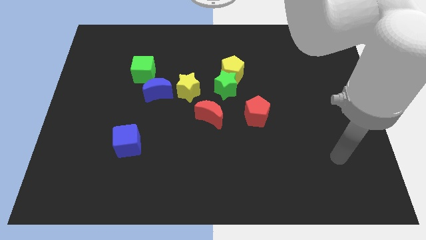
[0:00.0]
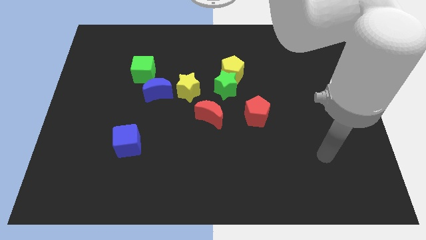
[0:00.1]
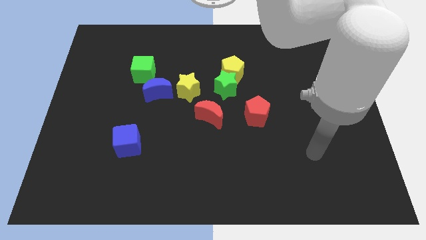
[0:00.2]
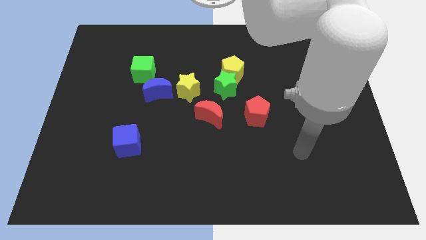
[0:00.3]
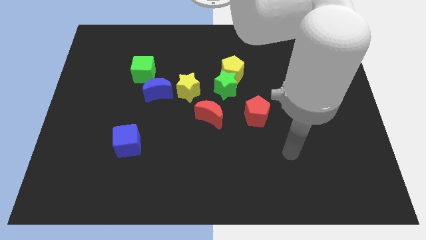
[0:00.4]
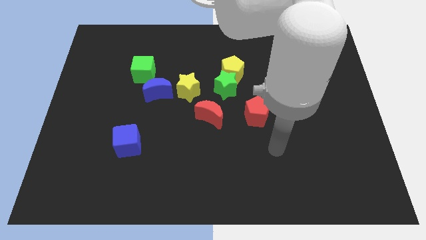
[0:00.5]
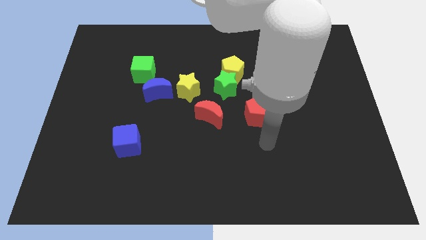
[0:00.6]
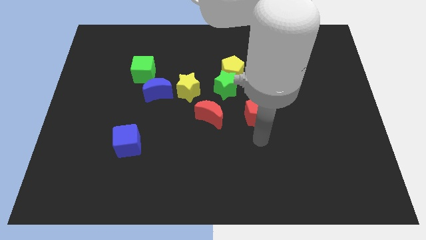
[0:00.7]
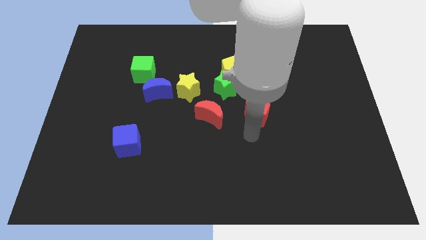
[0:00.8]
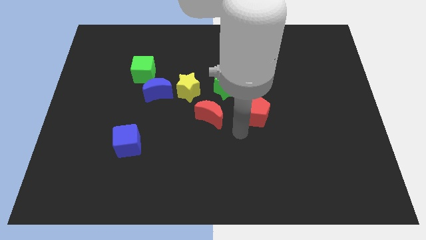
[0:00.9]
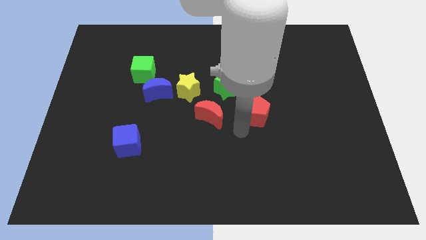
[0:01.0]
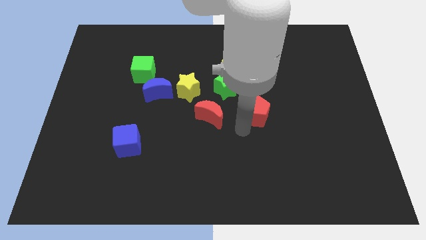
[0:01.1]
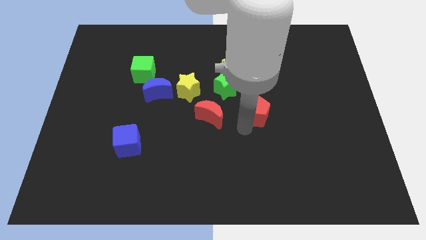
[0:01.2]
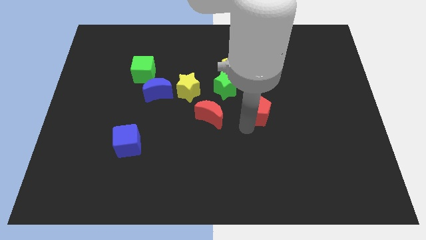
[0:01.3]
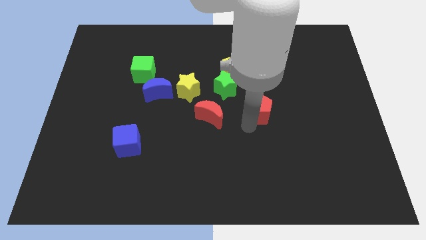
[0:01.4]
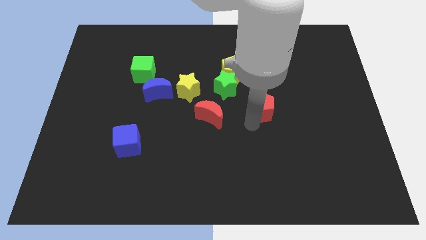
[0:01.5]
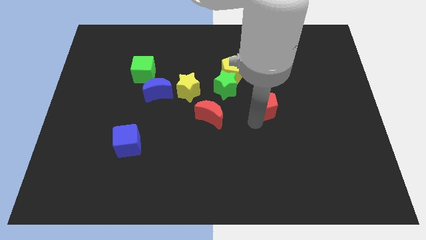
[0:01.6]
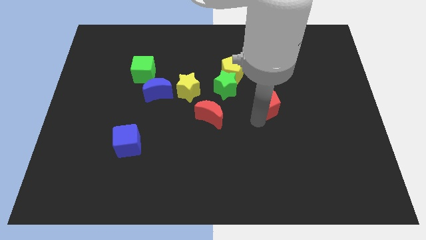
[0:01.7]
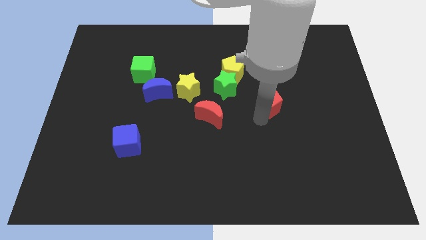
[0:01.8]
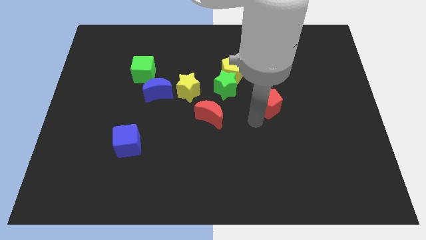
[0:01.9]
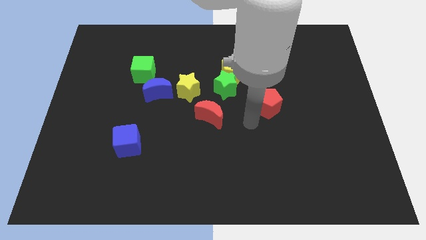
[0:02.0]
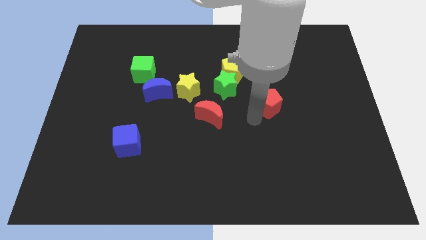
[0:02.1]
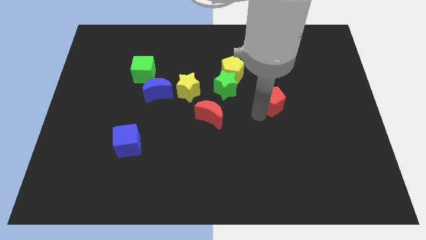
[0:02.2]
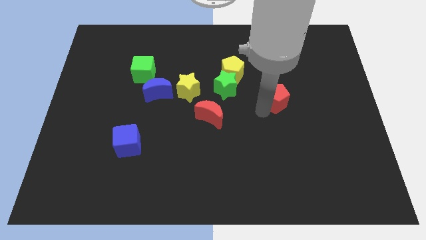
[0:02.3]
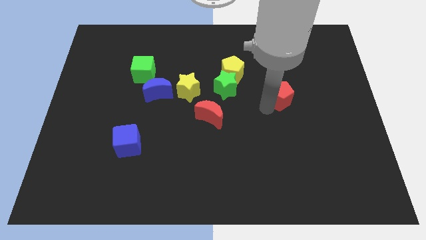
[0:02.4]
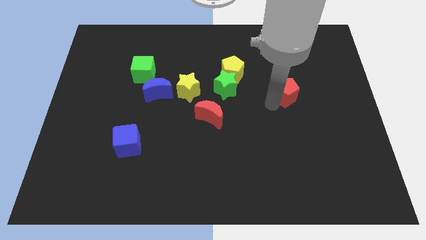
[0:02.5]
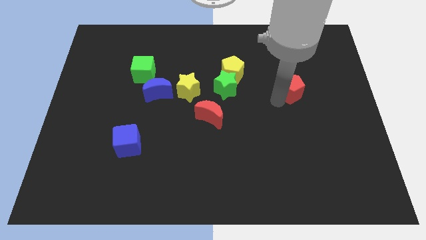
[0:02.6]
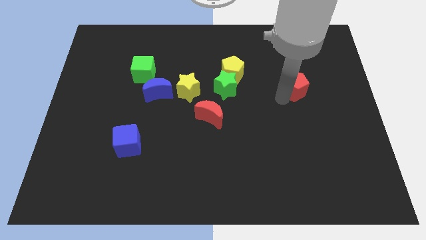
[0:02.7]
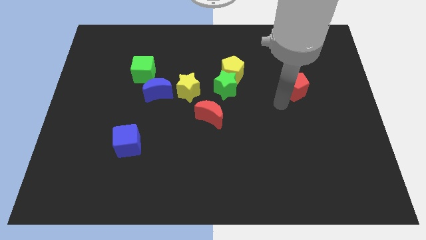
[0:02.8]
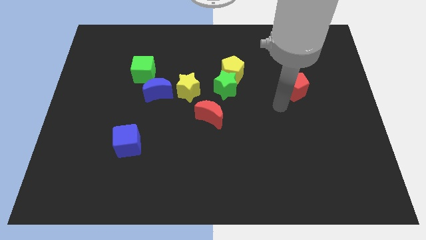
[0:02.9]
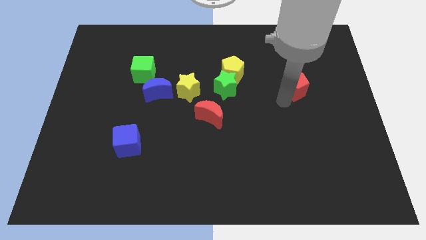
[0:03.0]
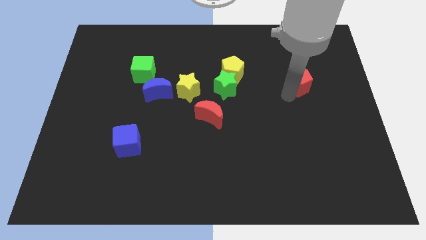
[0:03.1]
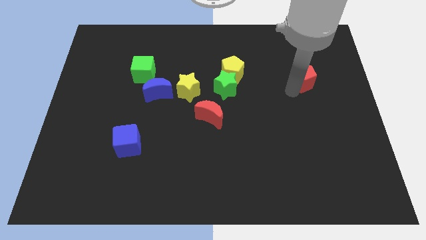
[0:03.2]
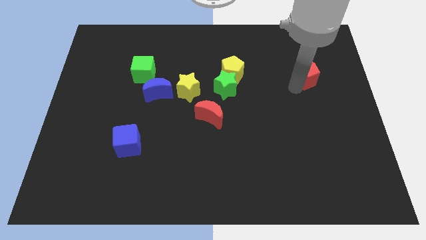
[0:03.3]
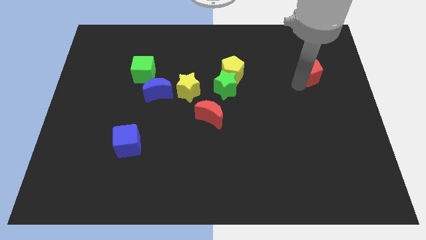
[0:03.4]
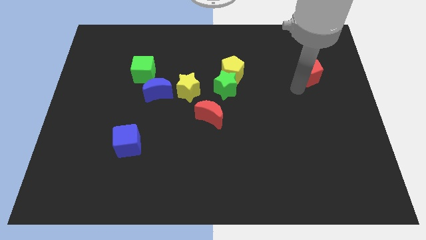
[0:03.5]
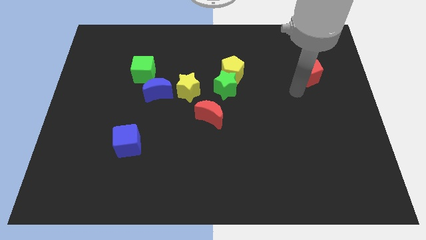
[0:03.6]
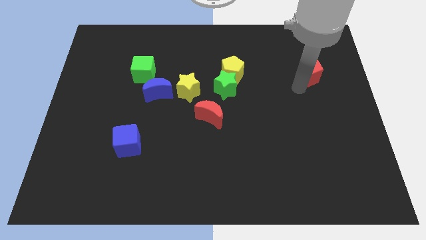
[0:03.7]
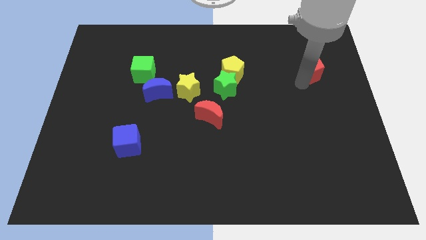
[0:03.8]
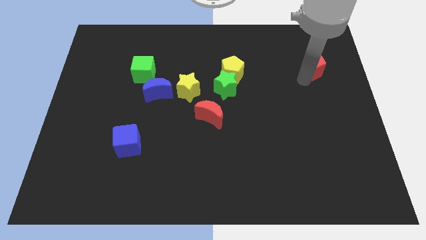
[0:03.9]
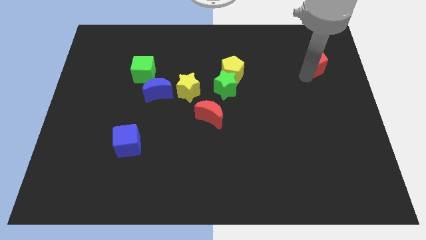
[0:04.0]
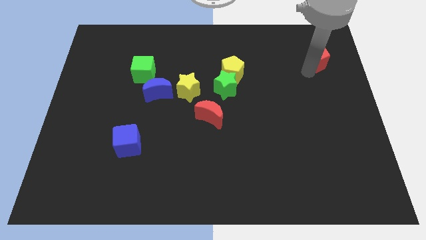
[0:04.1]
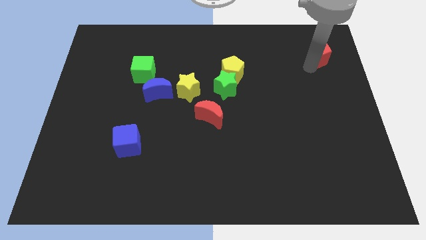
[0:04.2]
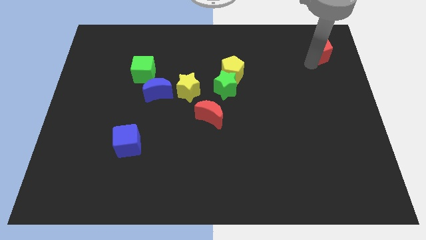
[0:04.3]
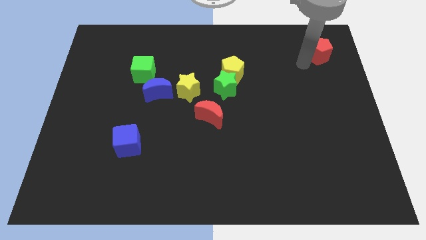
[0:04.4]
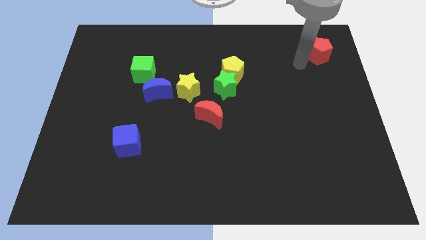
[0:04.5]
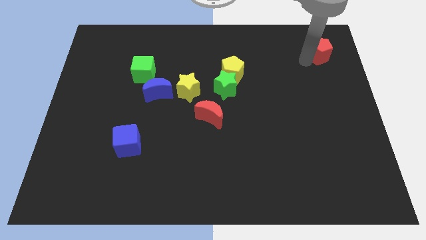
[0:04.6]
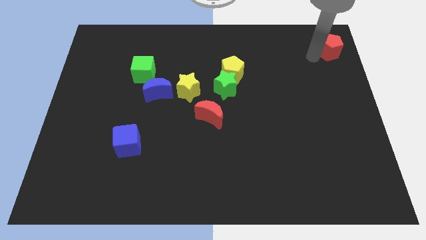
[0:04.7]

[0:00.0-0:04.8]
push the red pentagon to the top right

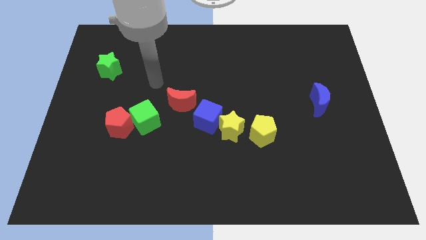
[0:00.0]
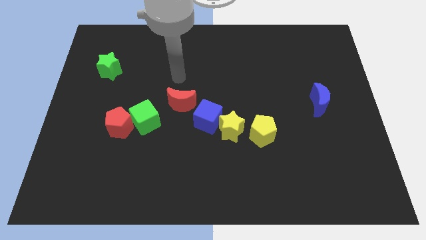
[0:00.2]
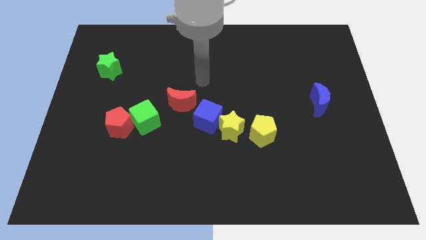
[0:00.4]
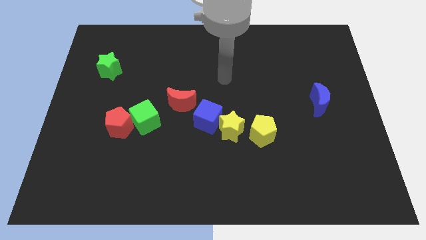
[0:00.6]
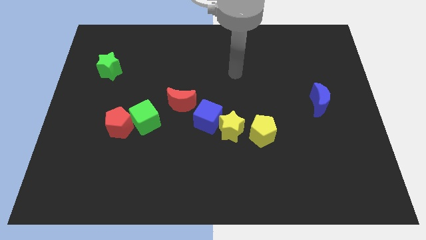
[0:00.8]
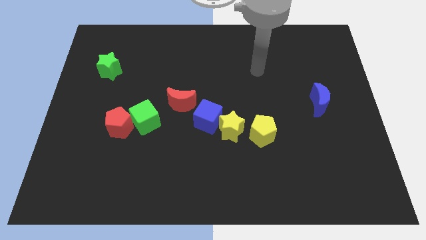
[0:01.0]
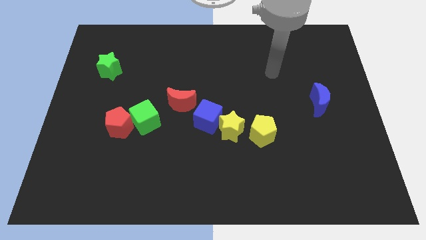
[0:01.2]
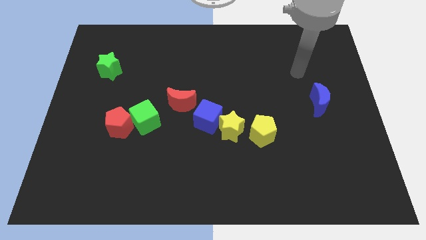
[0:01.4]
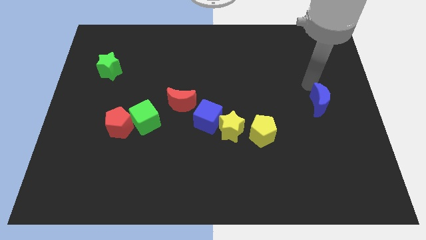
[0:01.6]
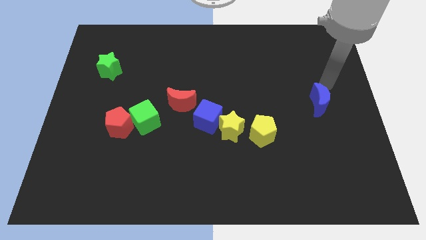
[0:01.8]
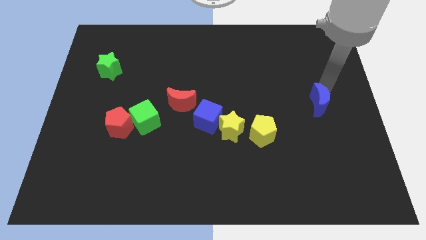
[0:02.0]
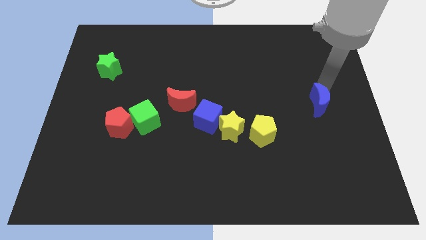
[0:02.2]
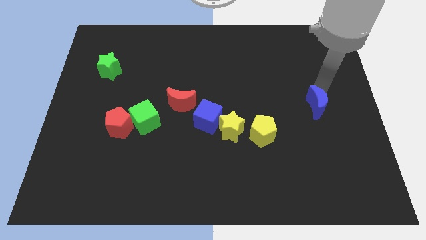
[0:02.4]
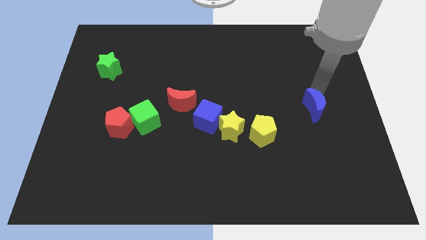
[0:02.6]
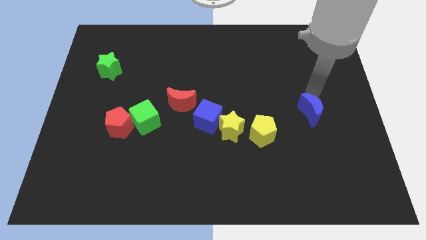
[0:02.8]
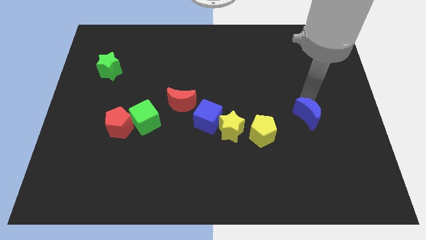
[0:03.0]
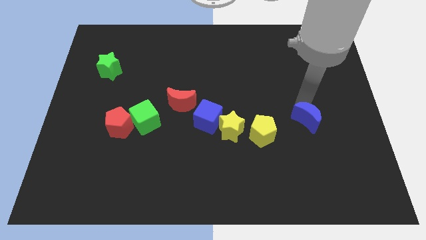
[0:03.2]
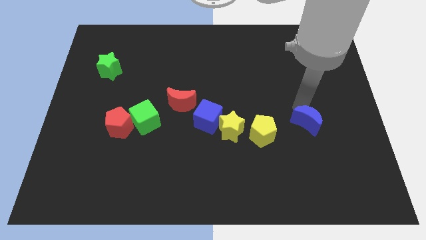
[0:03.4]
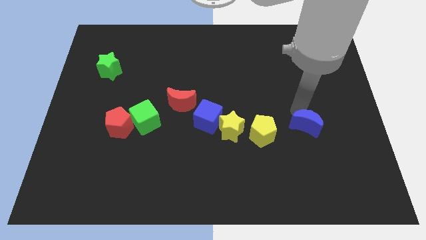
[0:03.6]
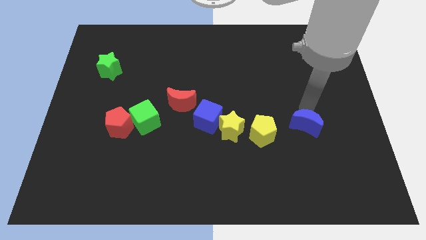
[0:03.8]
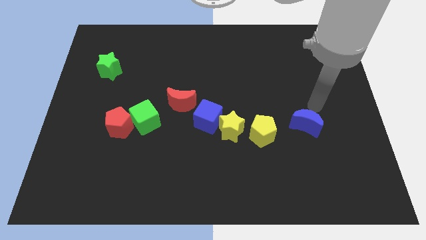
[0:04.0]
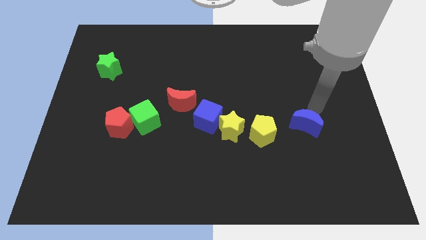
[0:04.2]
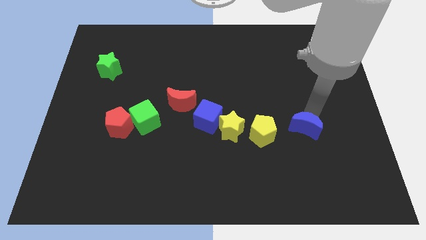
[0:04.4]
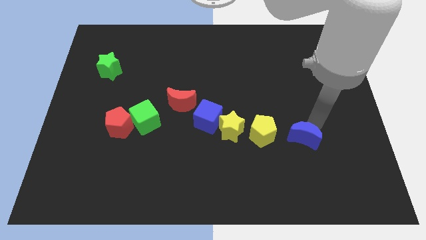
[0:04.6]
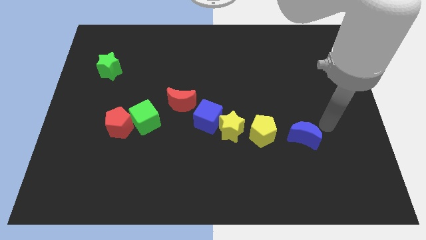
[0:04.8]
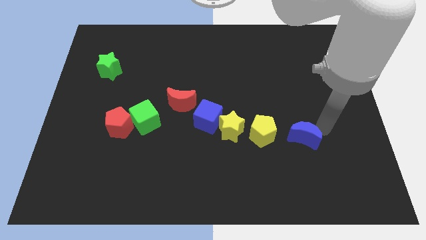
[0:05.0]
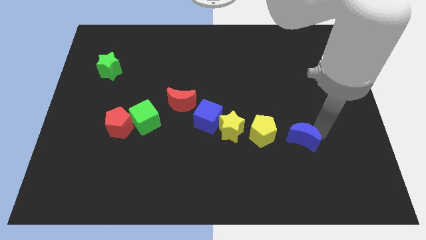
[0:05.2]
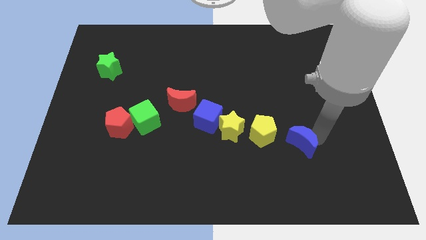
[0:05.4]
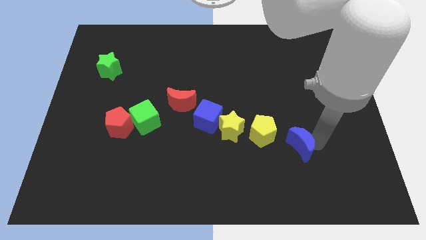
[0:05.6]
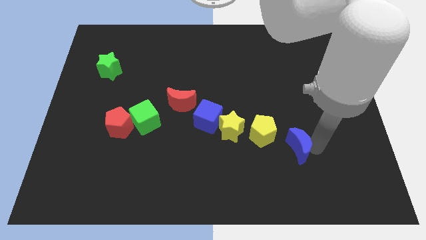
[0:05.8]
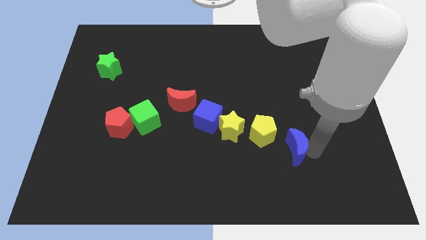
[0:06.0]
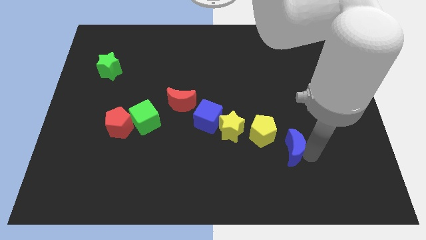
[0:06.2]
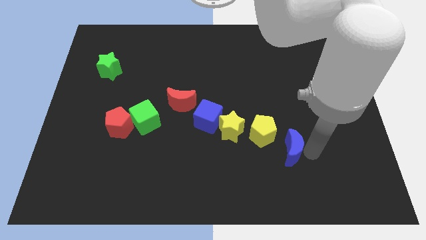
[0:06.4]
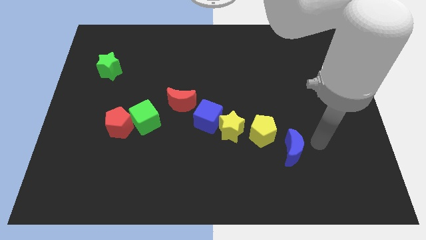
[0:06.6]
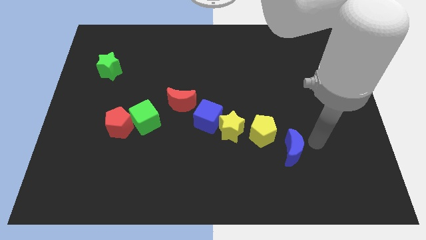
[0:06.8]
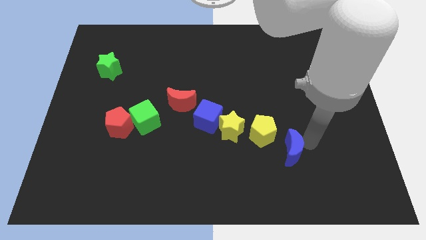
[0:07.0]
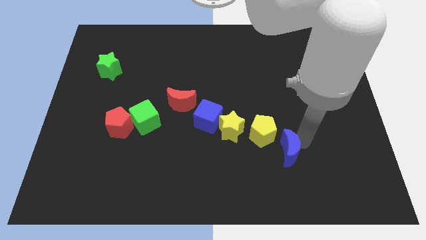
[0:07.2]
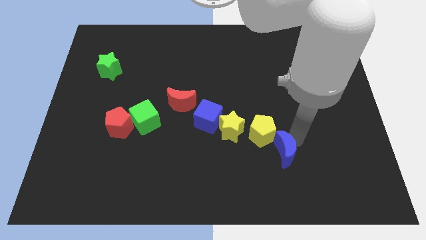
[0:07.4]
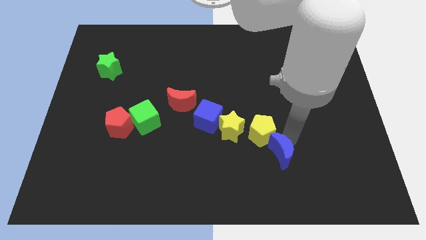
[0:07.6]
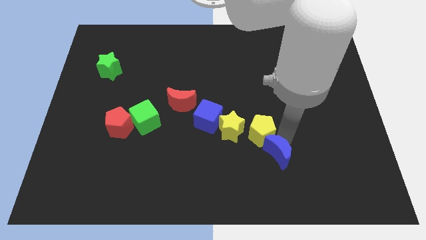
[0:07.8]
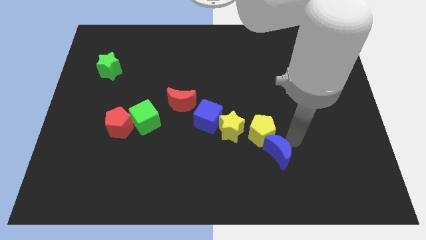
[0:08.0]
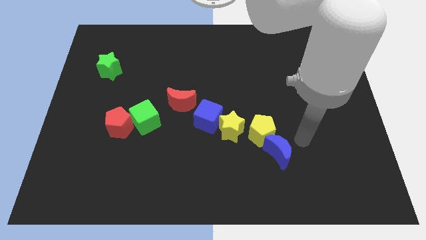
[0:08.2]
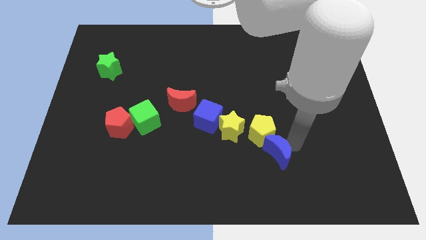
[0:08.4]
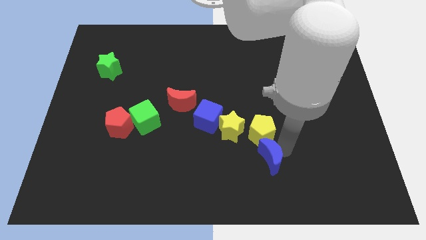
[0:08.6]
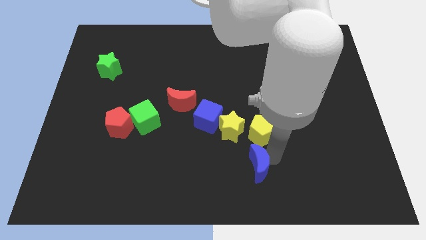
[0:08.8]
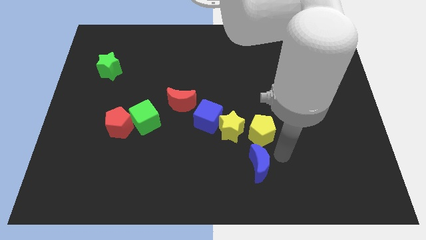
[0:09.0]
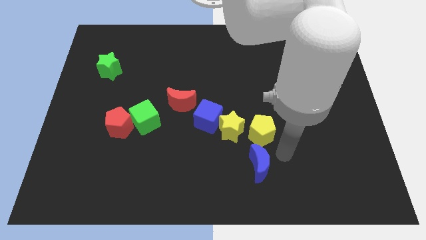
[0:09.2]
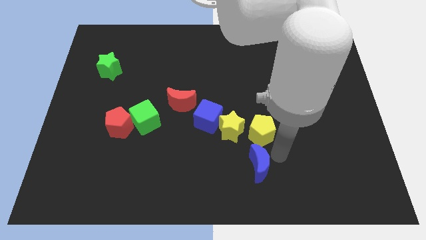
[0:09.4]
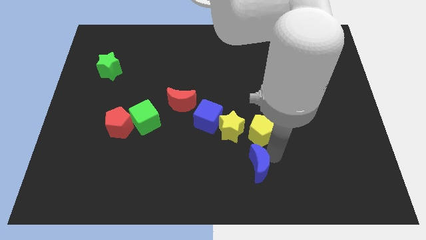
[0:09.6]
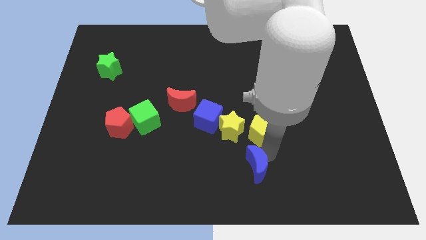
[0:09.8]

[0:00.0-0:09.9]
put the blue moon to the bottom side
